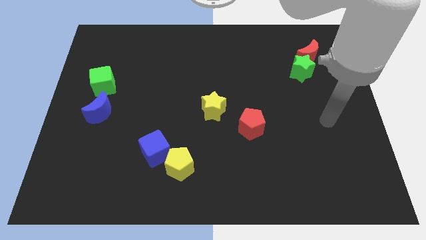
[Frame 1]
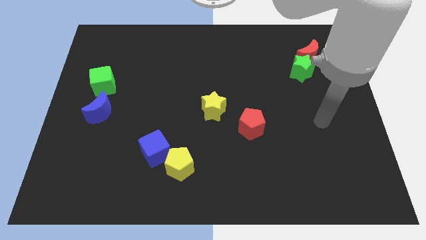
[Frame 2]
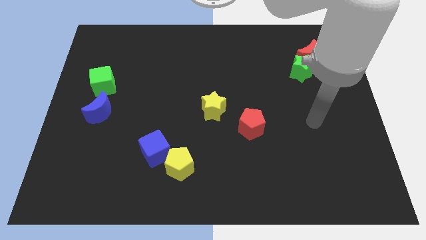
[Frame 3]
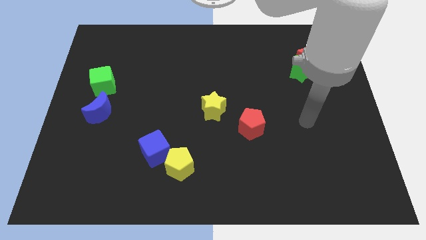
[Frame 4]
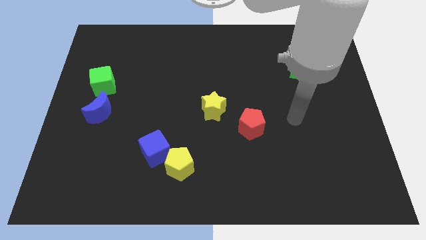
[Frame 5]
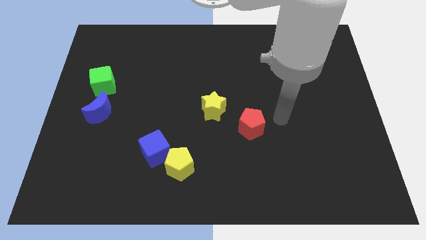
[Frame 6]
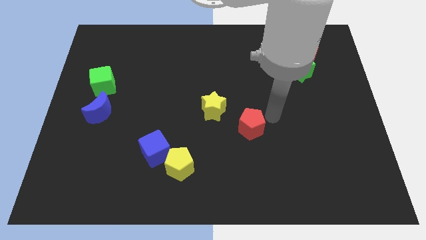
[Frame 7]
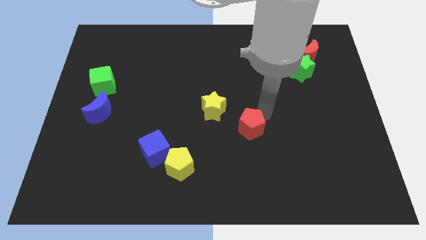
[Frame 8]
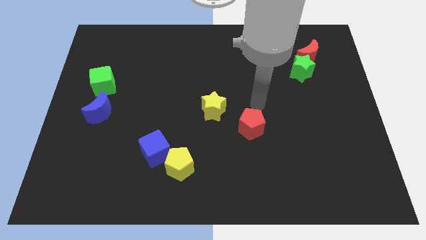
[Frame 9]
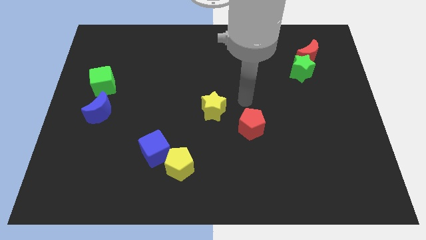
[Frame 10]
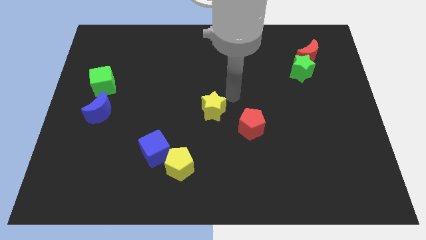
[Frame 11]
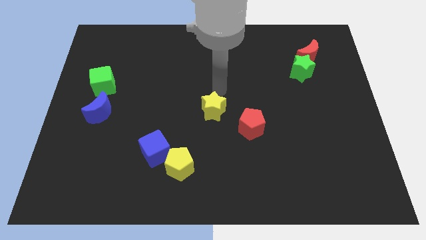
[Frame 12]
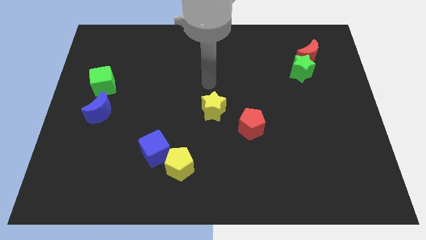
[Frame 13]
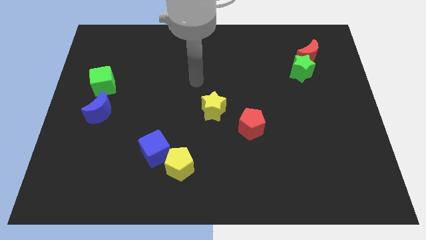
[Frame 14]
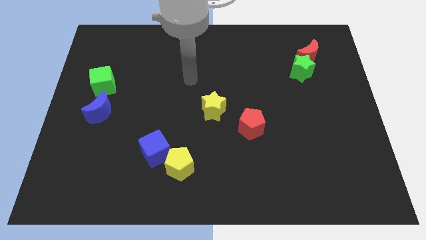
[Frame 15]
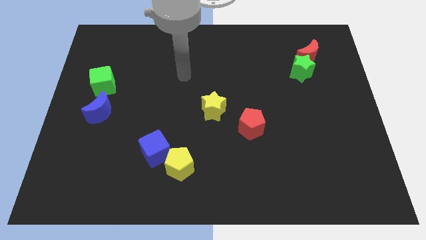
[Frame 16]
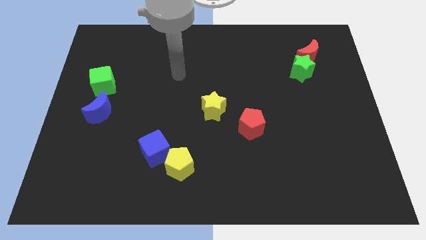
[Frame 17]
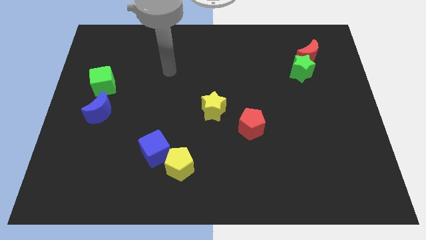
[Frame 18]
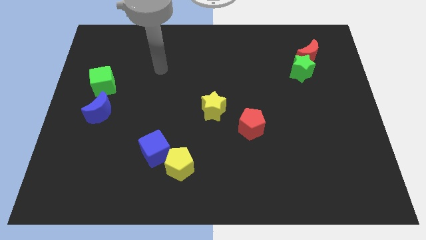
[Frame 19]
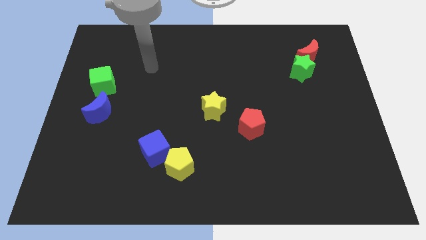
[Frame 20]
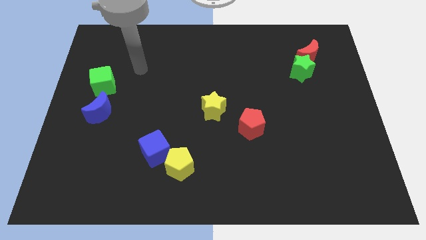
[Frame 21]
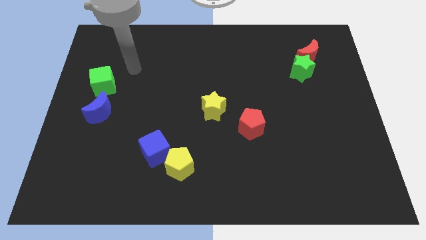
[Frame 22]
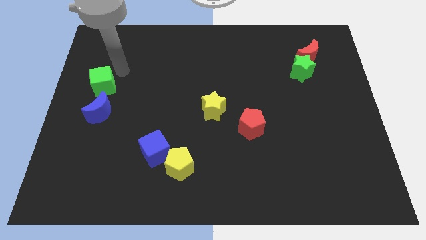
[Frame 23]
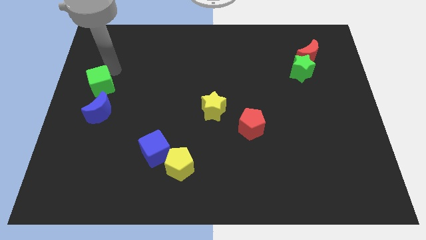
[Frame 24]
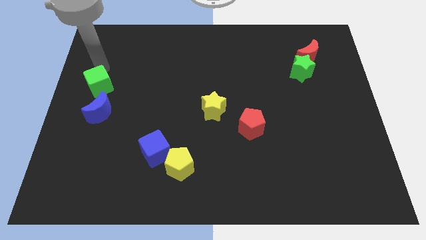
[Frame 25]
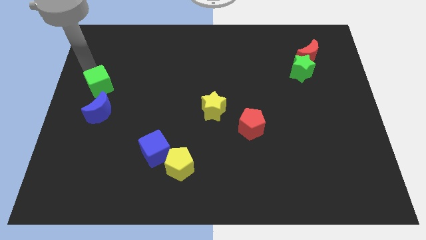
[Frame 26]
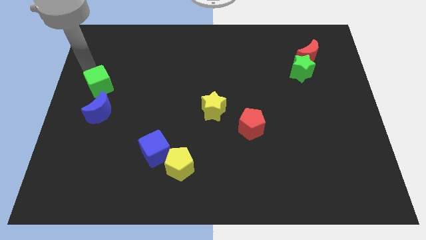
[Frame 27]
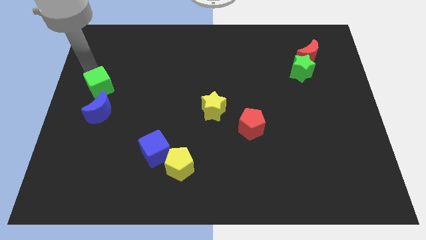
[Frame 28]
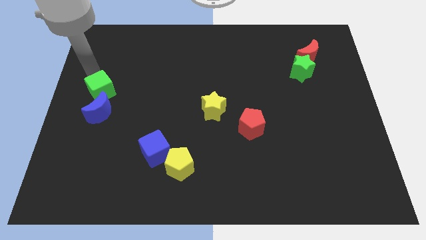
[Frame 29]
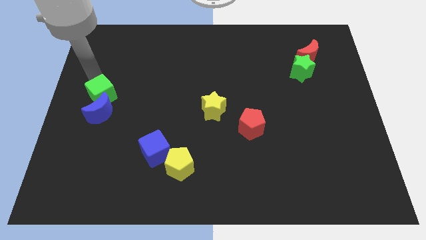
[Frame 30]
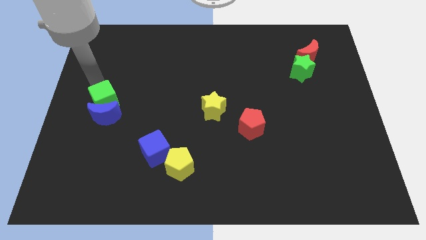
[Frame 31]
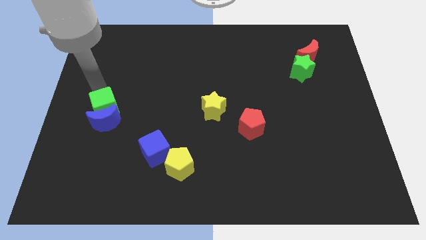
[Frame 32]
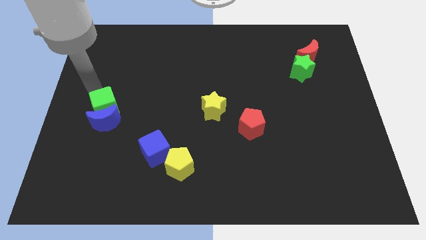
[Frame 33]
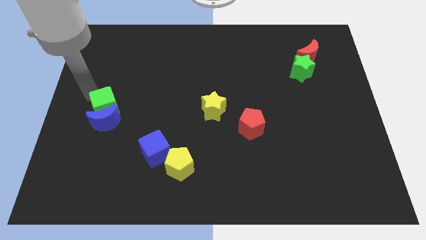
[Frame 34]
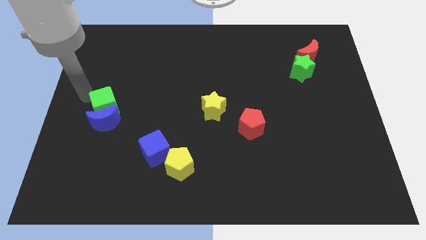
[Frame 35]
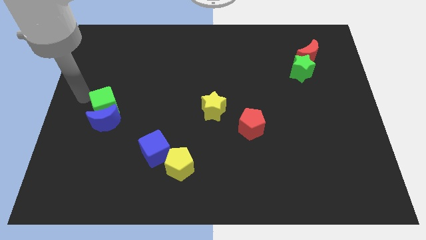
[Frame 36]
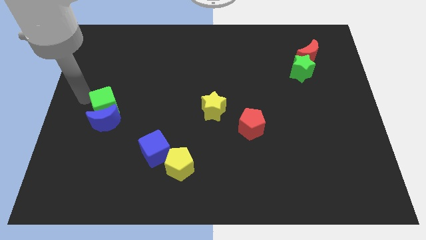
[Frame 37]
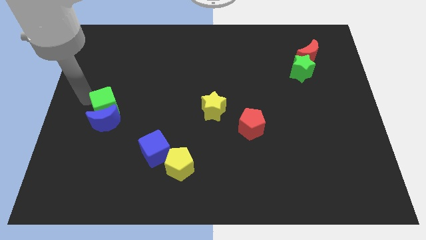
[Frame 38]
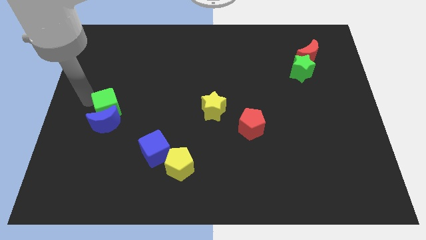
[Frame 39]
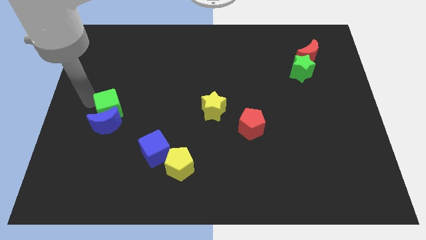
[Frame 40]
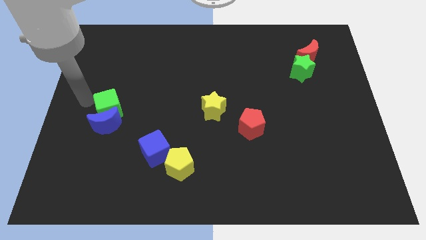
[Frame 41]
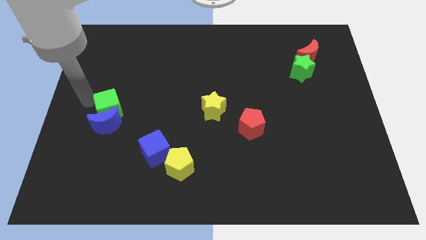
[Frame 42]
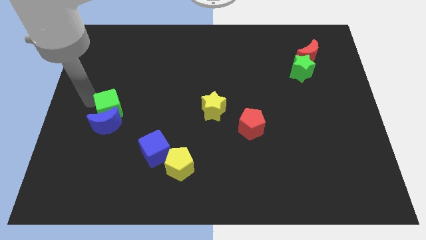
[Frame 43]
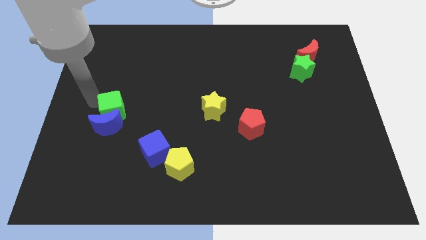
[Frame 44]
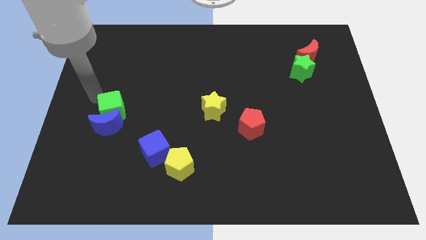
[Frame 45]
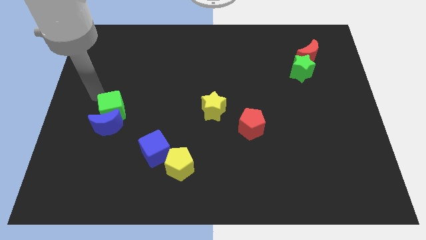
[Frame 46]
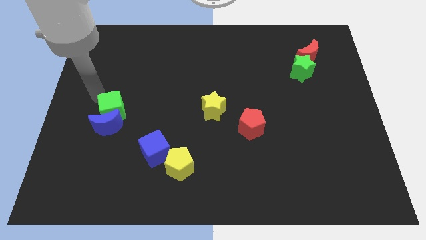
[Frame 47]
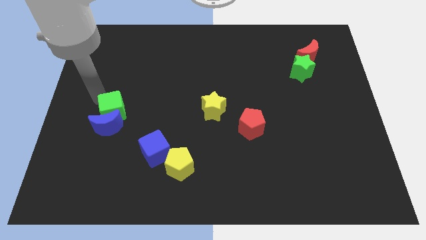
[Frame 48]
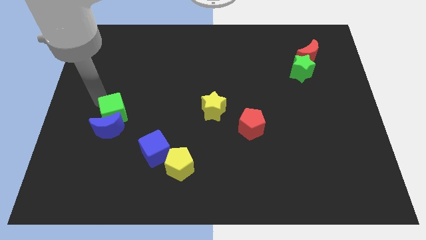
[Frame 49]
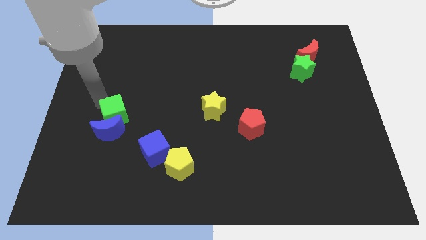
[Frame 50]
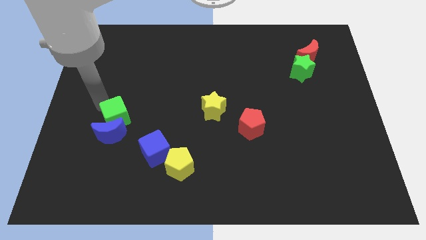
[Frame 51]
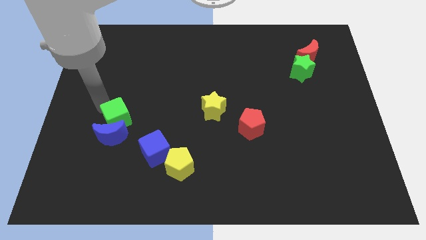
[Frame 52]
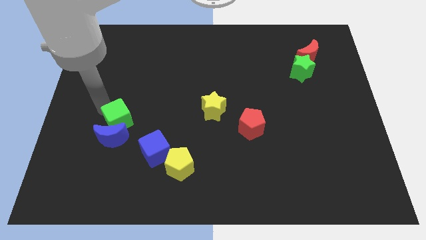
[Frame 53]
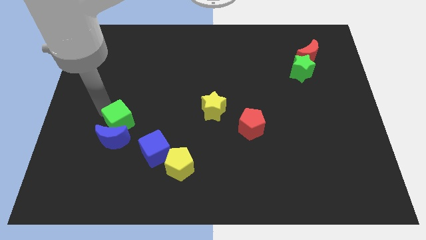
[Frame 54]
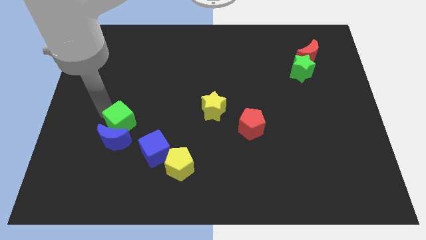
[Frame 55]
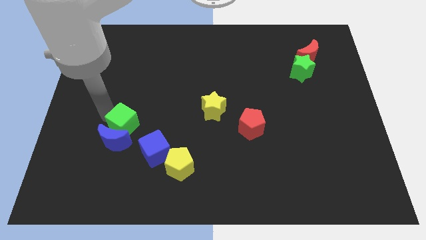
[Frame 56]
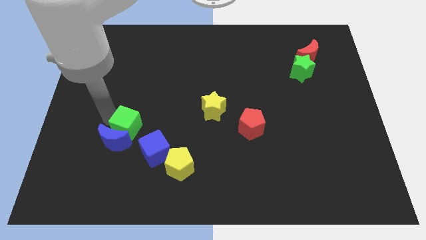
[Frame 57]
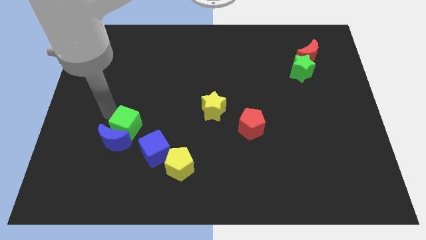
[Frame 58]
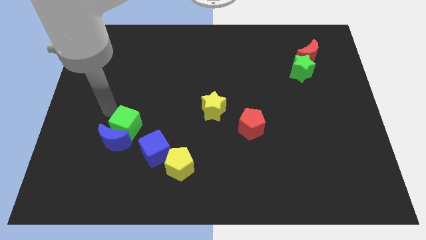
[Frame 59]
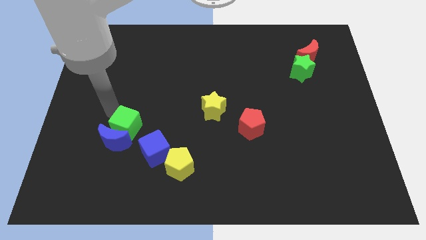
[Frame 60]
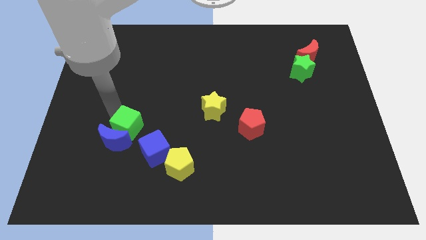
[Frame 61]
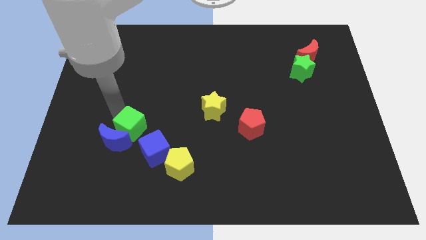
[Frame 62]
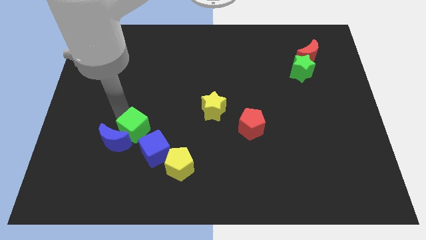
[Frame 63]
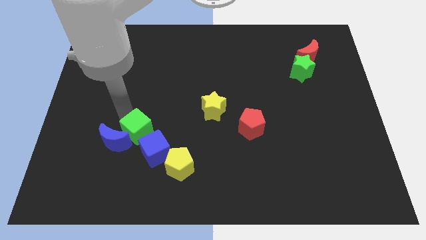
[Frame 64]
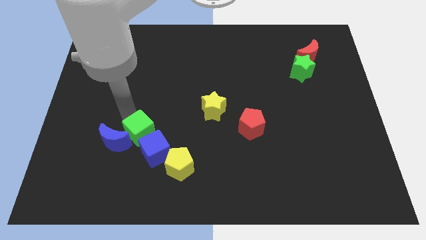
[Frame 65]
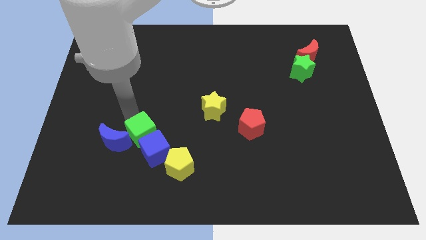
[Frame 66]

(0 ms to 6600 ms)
put the green cube next to the blue cube

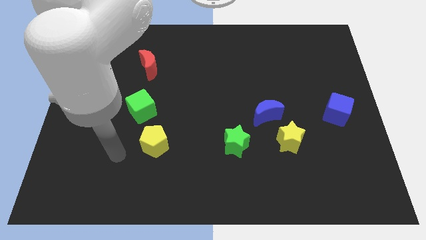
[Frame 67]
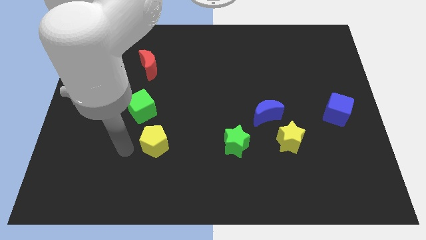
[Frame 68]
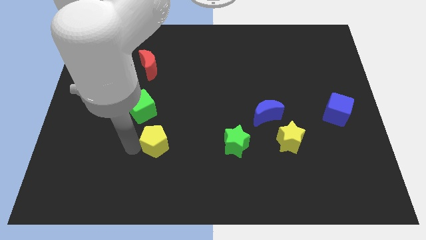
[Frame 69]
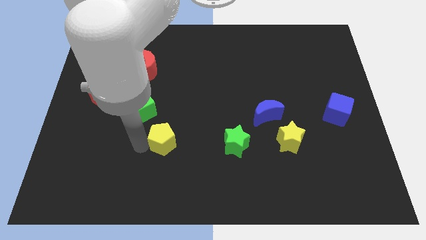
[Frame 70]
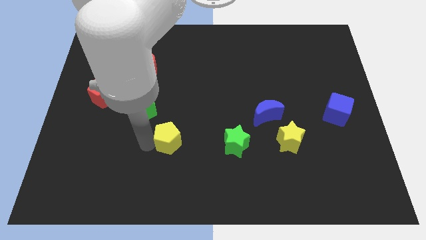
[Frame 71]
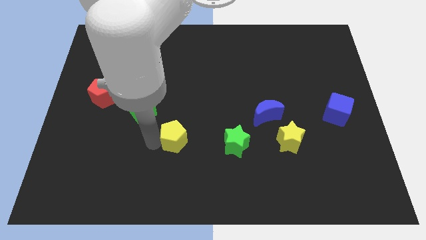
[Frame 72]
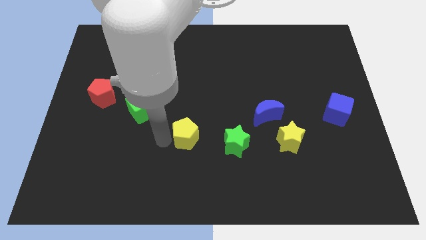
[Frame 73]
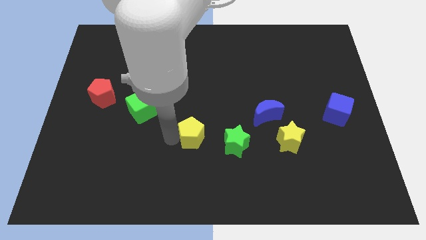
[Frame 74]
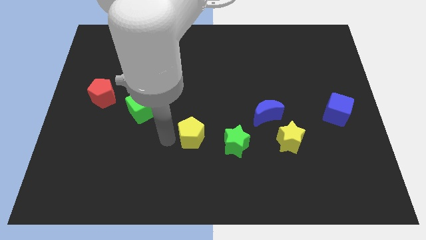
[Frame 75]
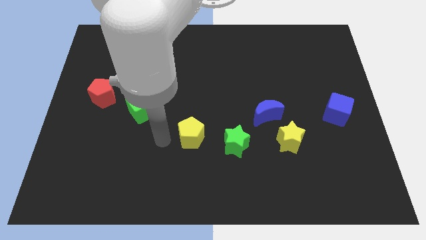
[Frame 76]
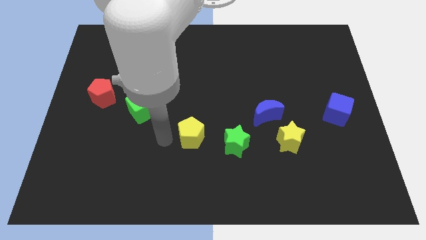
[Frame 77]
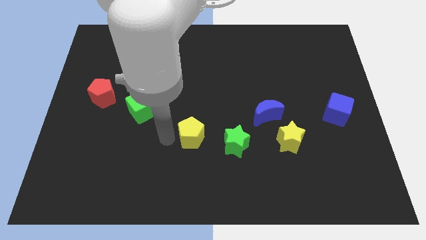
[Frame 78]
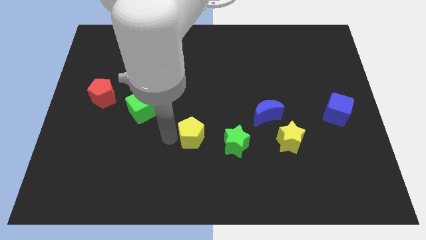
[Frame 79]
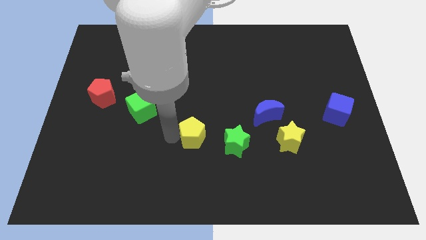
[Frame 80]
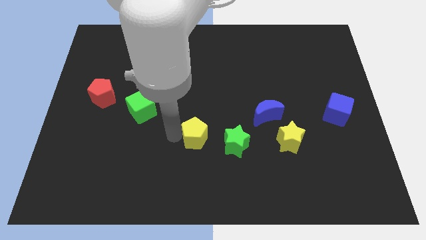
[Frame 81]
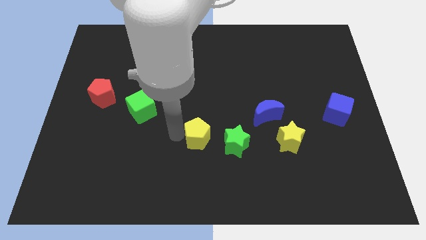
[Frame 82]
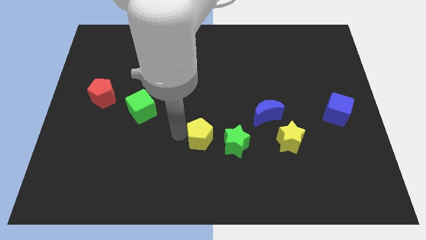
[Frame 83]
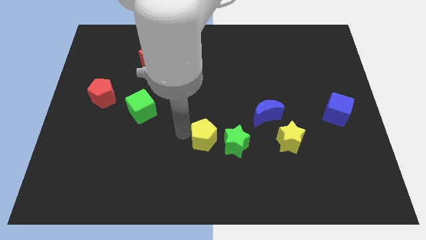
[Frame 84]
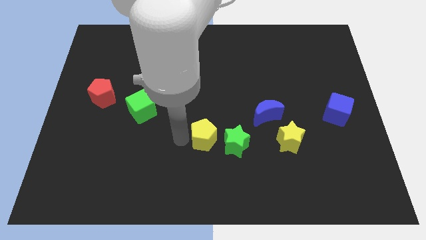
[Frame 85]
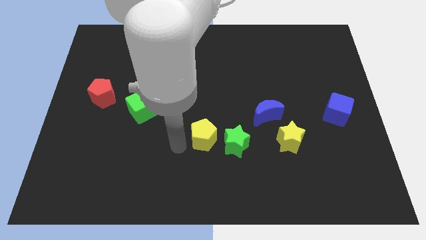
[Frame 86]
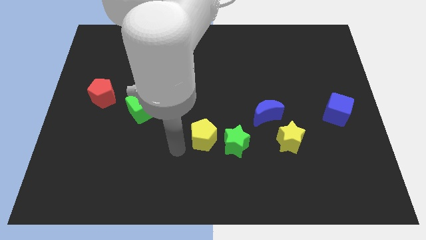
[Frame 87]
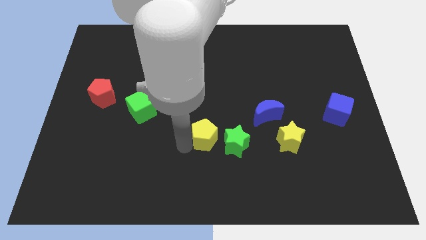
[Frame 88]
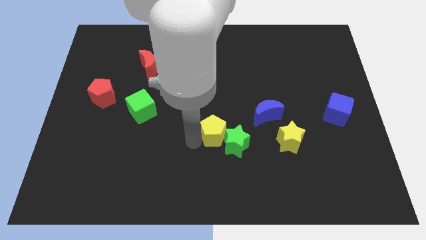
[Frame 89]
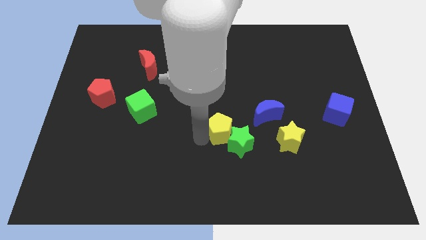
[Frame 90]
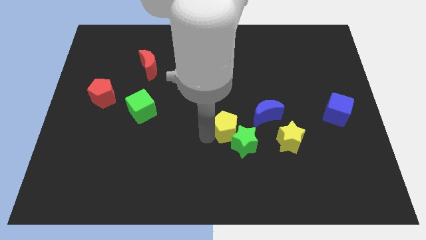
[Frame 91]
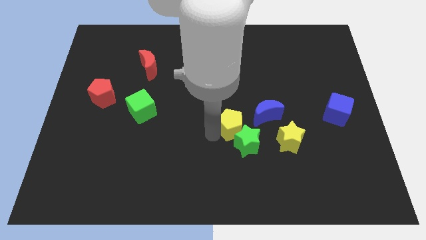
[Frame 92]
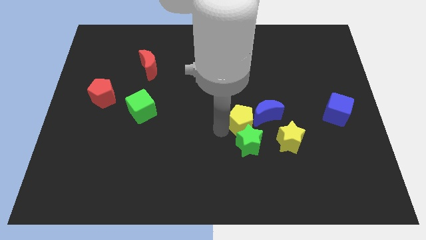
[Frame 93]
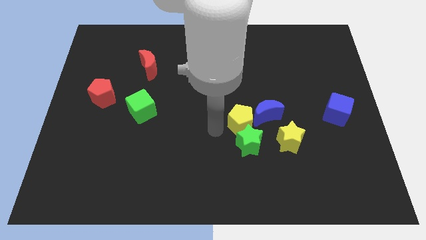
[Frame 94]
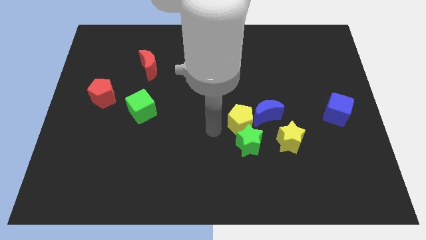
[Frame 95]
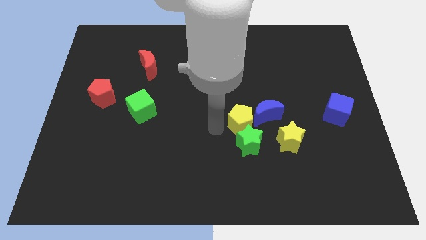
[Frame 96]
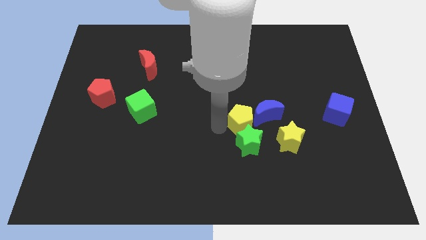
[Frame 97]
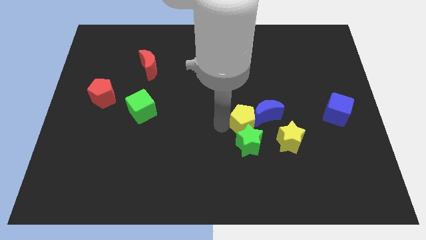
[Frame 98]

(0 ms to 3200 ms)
push the yellow pentagon next to the blue moon
